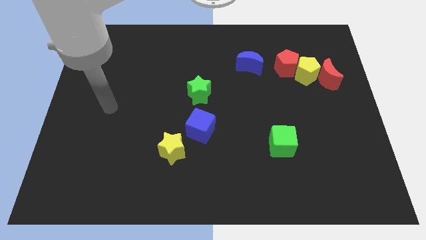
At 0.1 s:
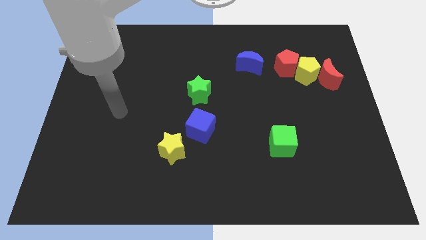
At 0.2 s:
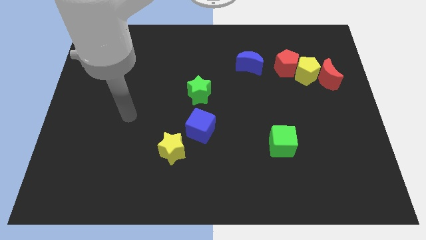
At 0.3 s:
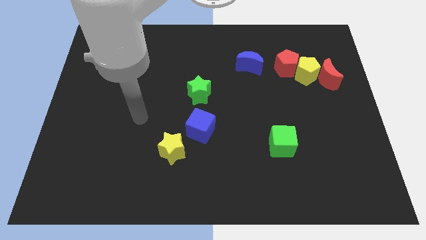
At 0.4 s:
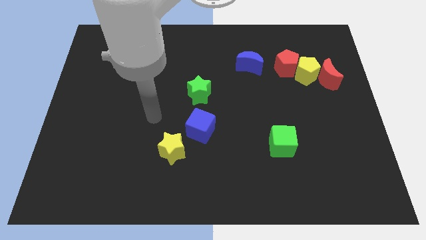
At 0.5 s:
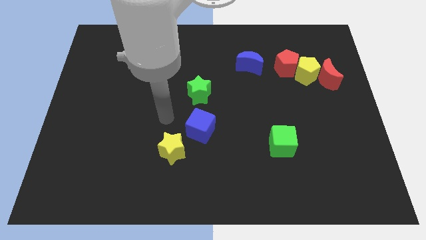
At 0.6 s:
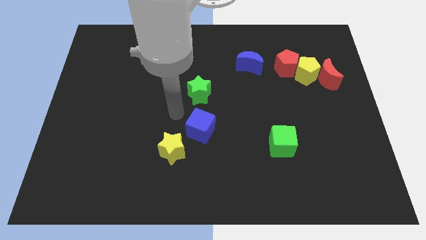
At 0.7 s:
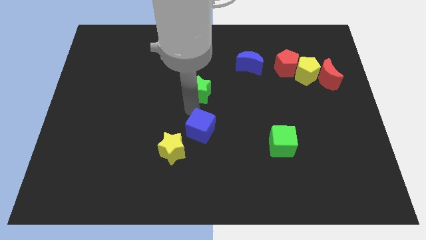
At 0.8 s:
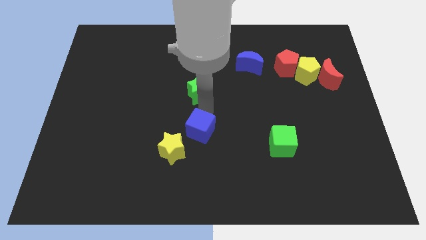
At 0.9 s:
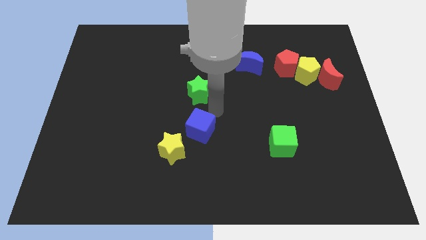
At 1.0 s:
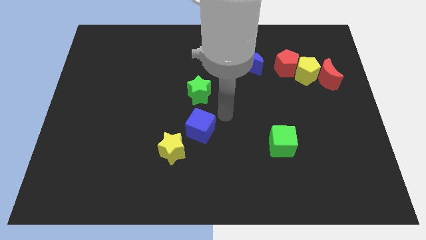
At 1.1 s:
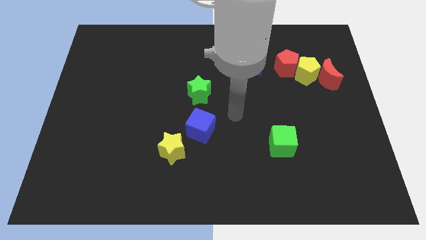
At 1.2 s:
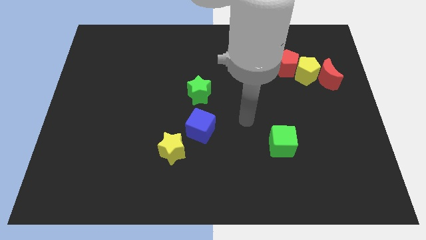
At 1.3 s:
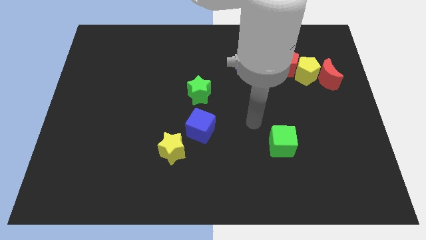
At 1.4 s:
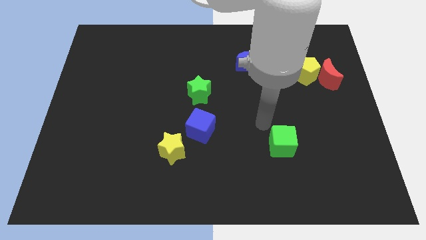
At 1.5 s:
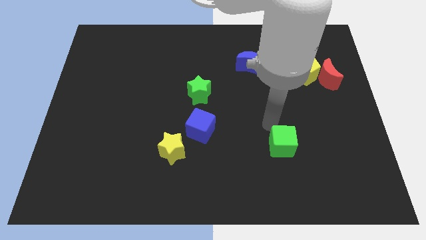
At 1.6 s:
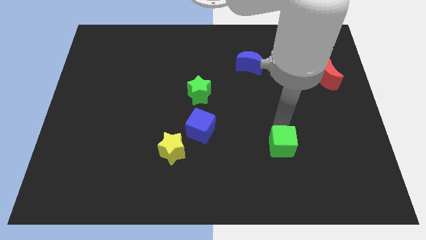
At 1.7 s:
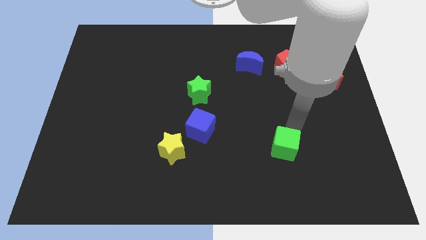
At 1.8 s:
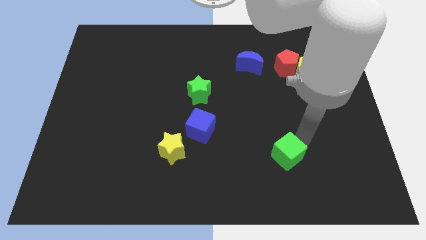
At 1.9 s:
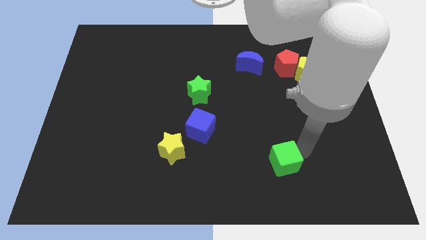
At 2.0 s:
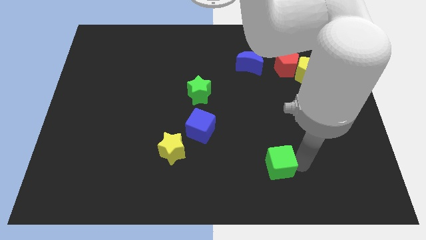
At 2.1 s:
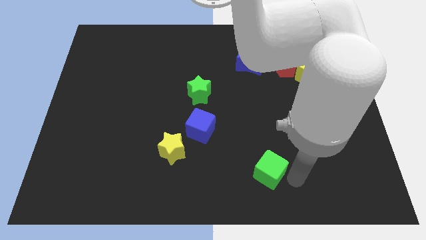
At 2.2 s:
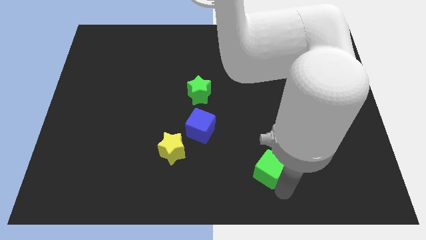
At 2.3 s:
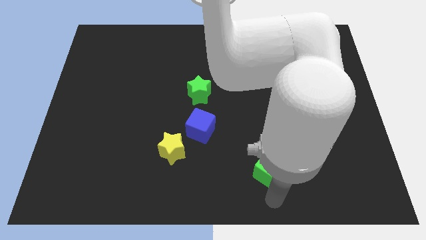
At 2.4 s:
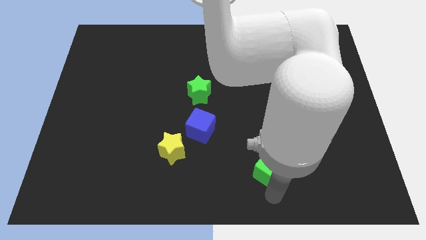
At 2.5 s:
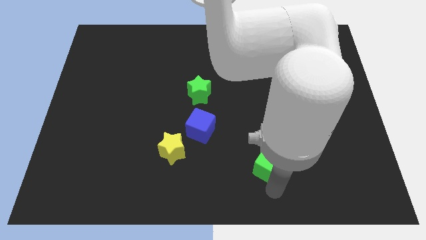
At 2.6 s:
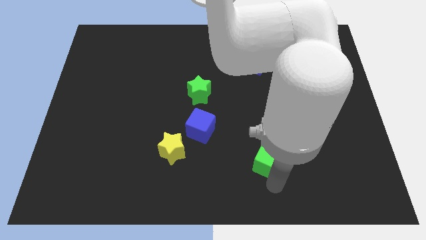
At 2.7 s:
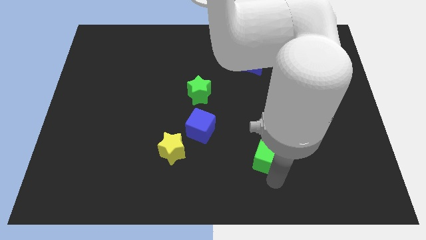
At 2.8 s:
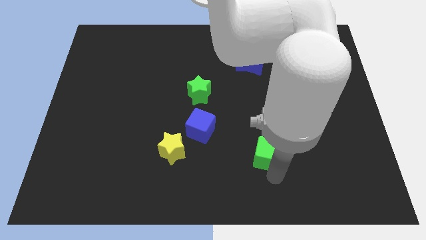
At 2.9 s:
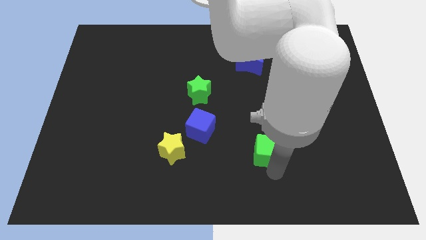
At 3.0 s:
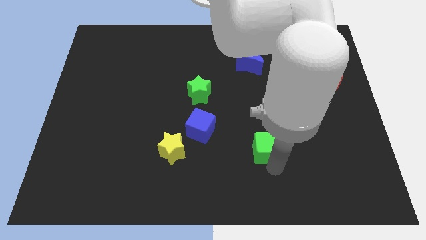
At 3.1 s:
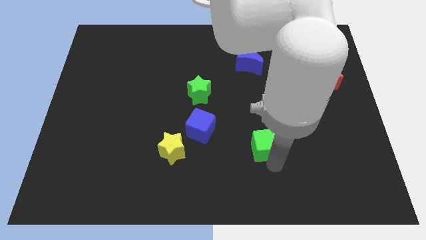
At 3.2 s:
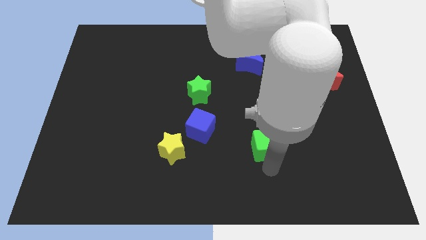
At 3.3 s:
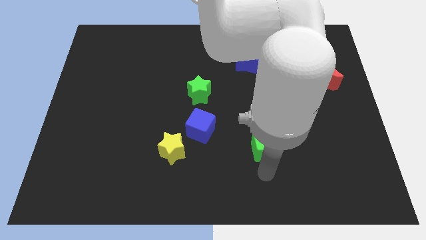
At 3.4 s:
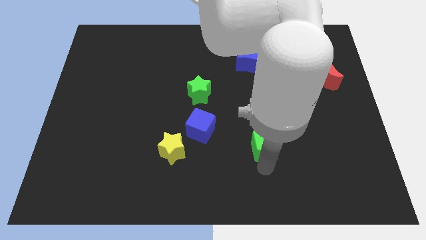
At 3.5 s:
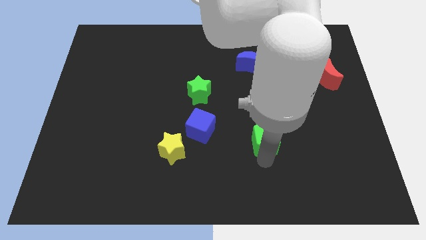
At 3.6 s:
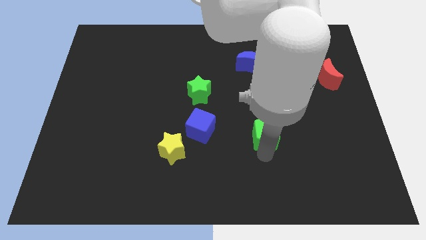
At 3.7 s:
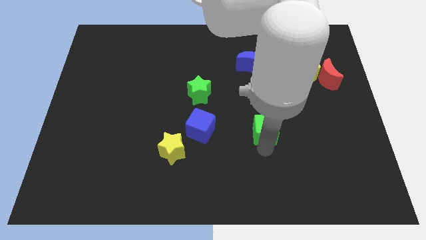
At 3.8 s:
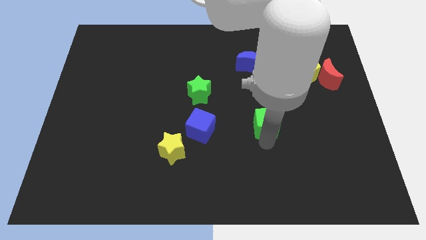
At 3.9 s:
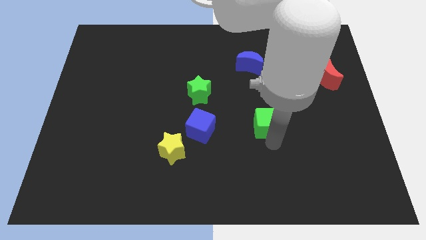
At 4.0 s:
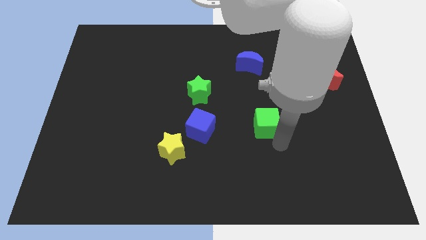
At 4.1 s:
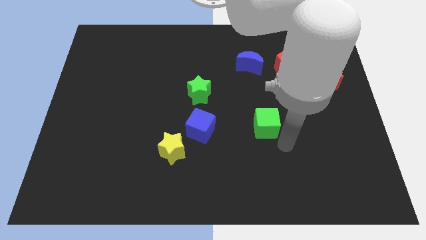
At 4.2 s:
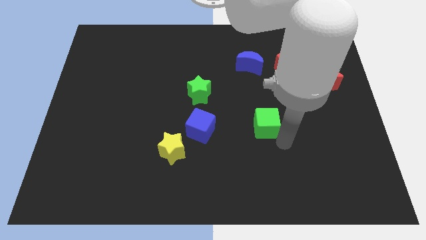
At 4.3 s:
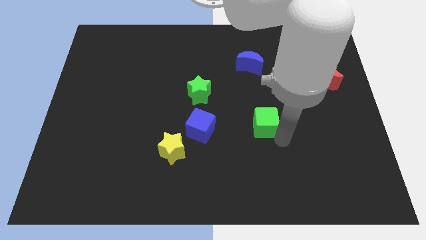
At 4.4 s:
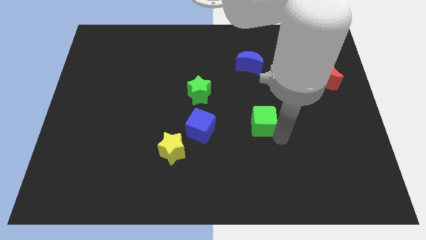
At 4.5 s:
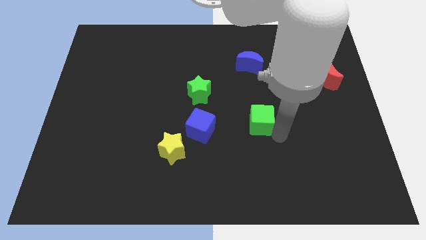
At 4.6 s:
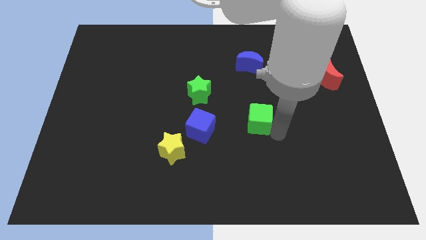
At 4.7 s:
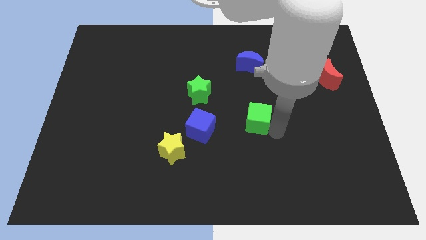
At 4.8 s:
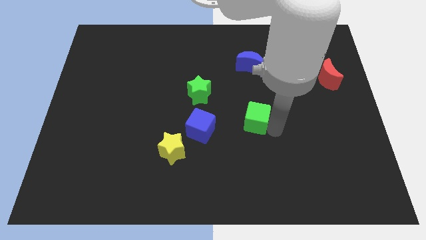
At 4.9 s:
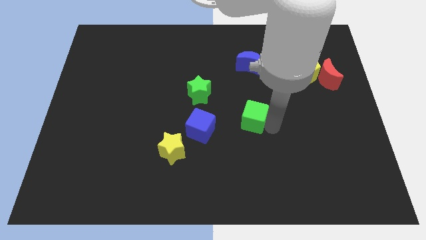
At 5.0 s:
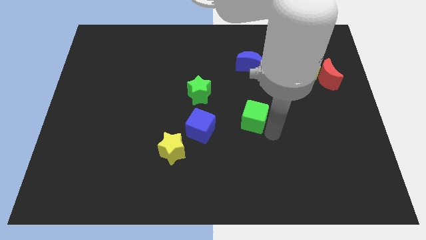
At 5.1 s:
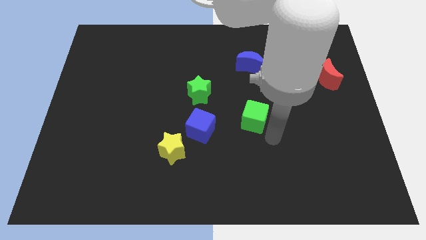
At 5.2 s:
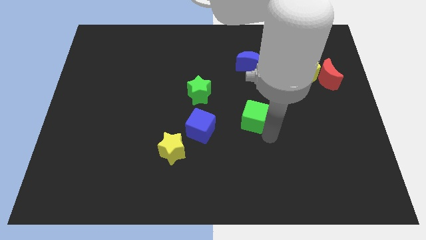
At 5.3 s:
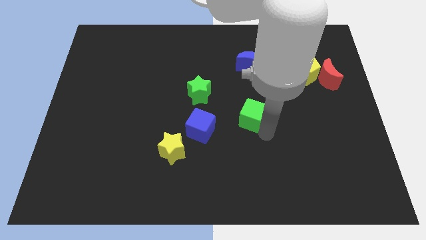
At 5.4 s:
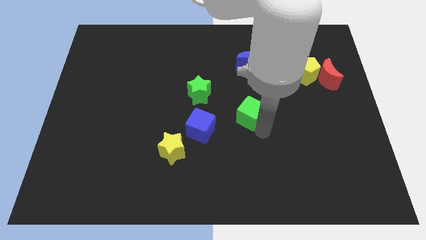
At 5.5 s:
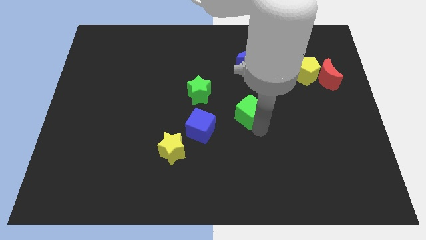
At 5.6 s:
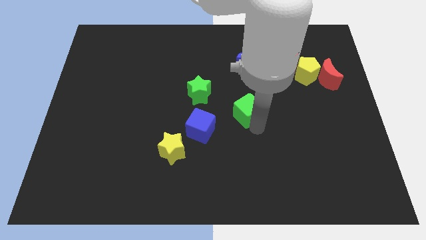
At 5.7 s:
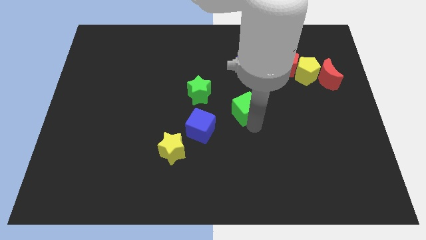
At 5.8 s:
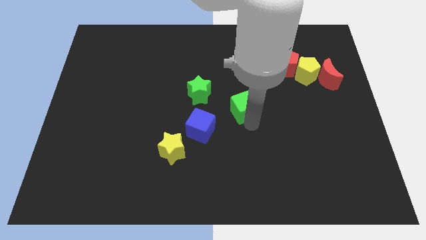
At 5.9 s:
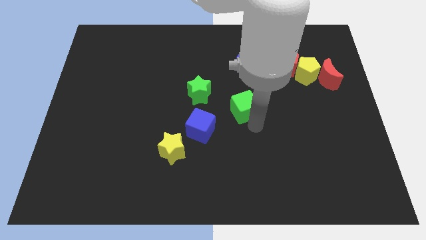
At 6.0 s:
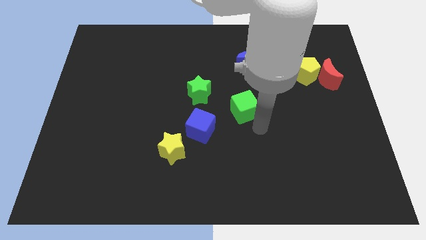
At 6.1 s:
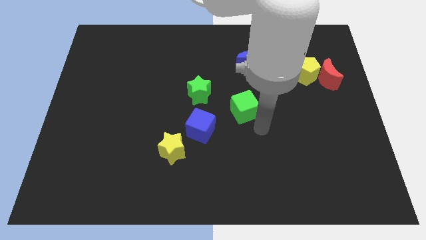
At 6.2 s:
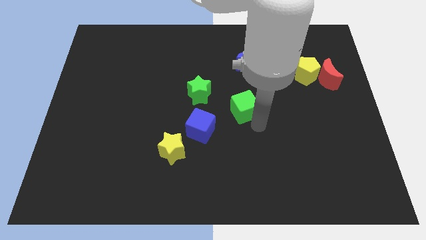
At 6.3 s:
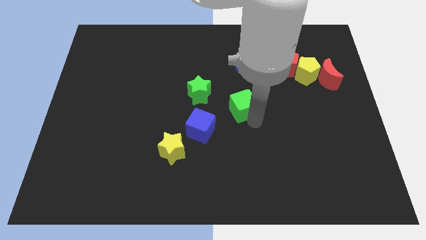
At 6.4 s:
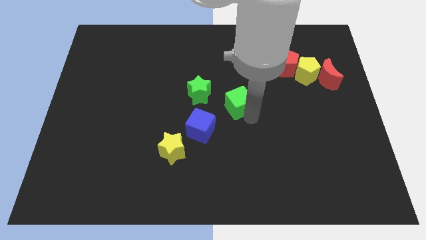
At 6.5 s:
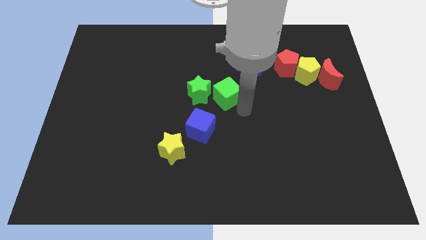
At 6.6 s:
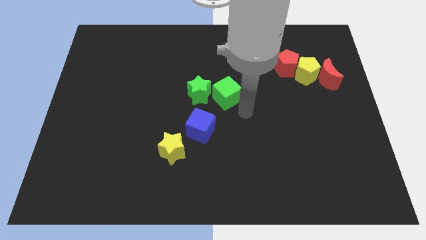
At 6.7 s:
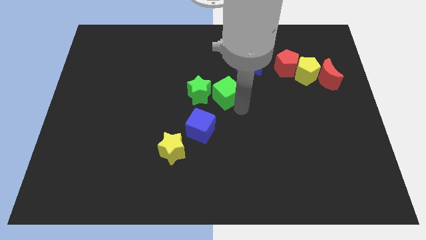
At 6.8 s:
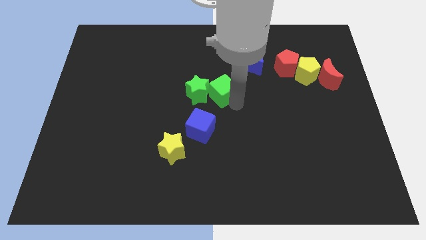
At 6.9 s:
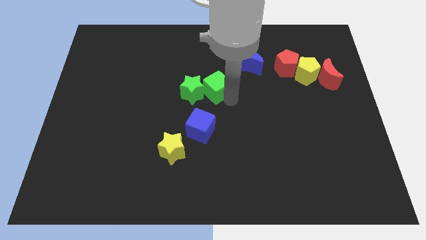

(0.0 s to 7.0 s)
push the green cube upwards and to the left

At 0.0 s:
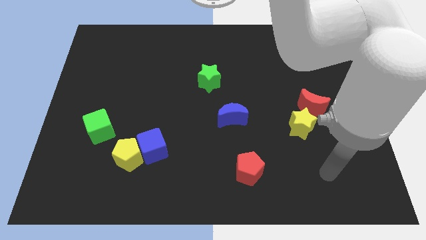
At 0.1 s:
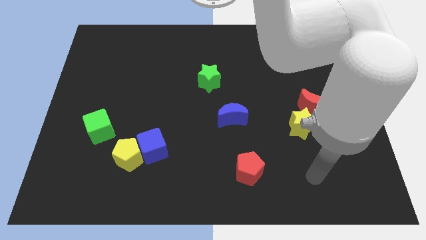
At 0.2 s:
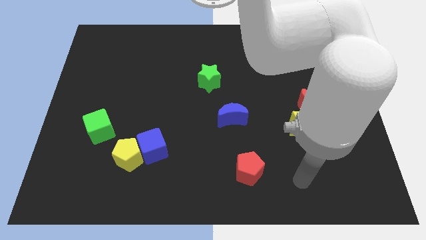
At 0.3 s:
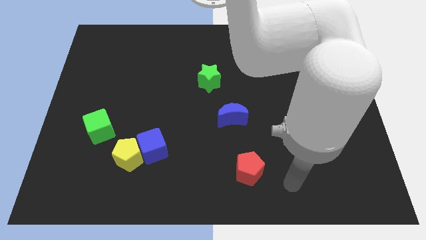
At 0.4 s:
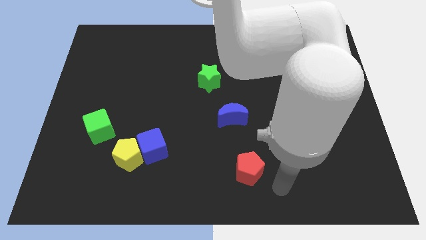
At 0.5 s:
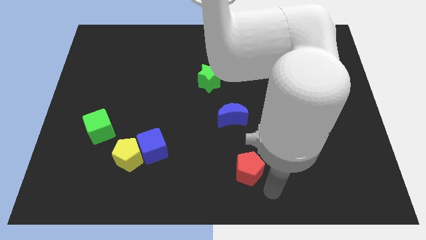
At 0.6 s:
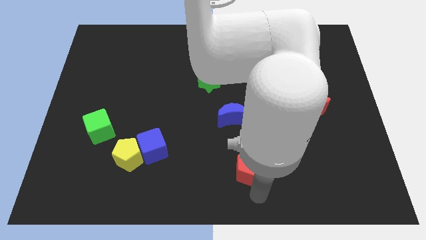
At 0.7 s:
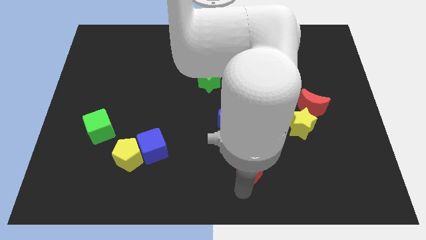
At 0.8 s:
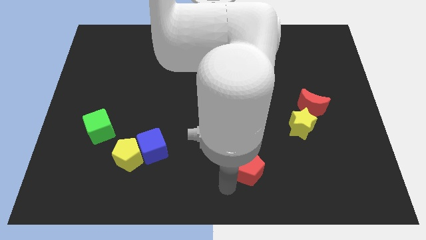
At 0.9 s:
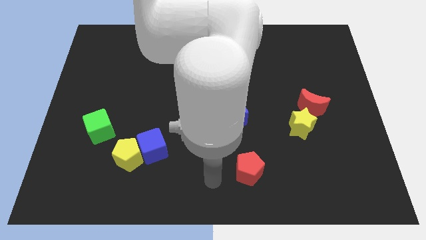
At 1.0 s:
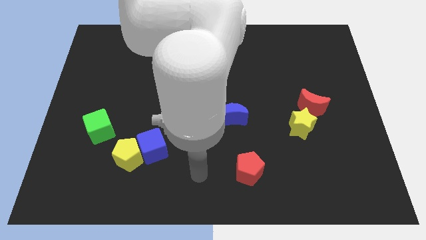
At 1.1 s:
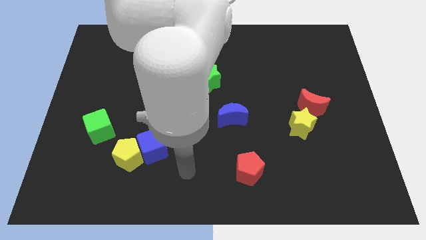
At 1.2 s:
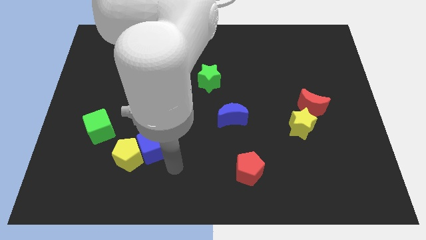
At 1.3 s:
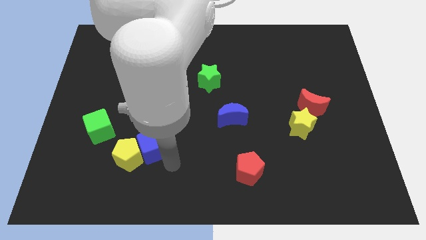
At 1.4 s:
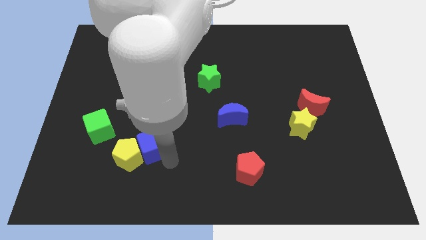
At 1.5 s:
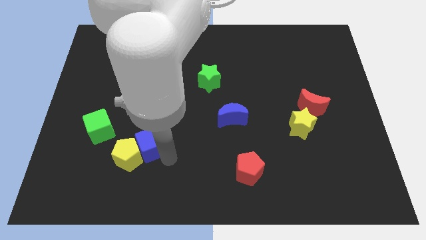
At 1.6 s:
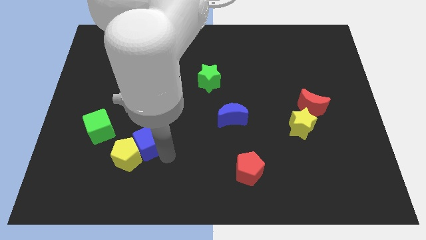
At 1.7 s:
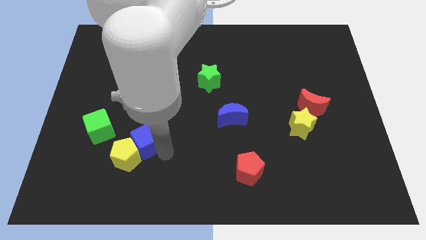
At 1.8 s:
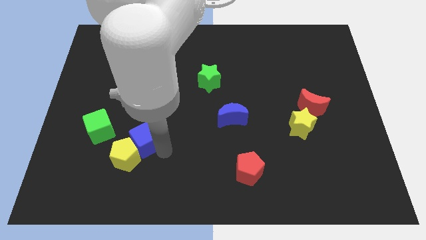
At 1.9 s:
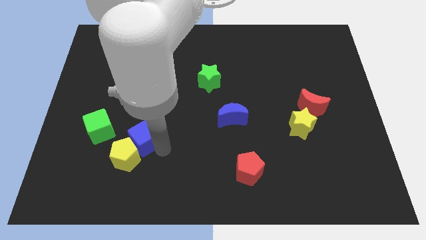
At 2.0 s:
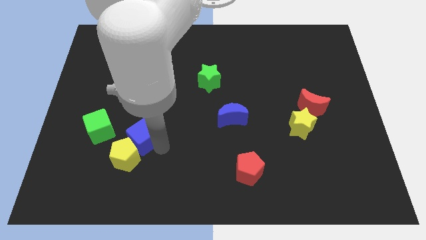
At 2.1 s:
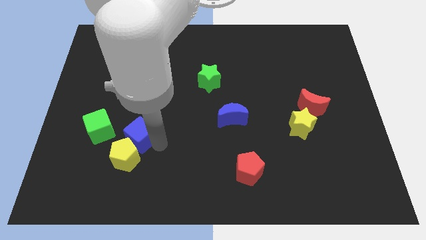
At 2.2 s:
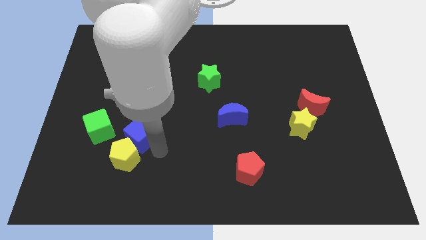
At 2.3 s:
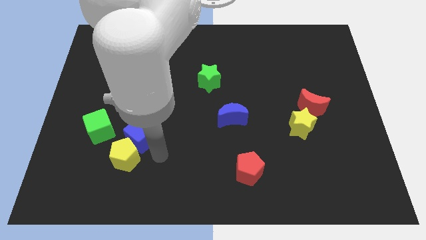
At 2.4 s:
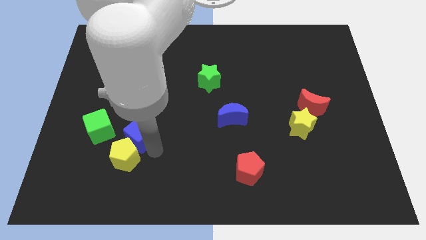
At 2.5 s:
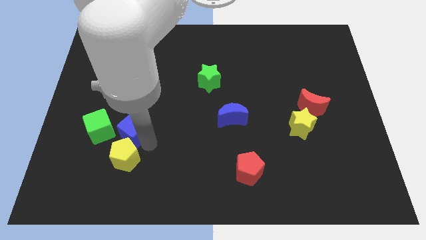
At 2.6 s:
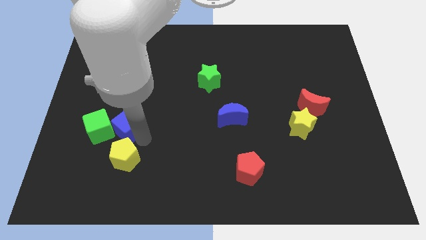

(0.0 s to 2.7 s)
slightly move the blue cube upwards and then left
